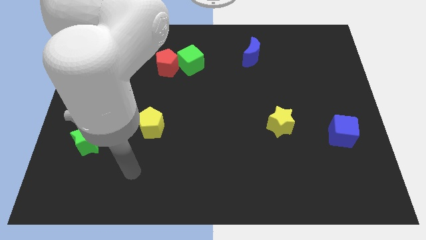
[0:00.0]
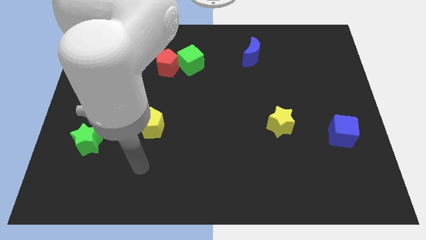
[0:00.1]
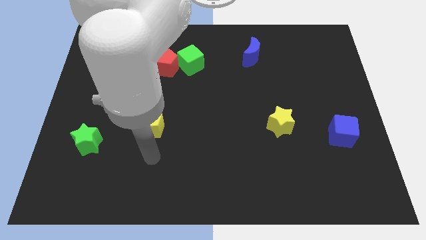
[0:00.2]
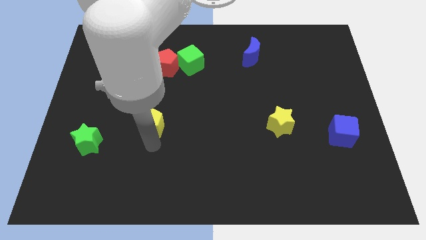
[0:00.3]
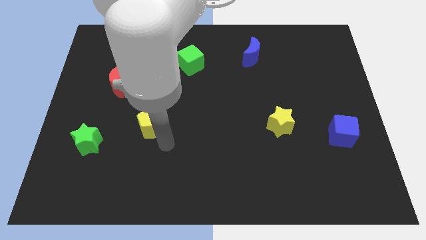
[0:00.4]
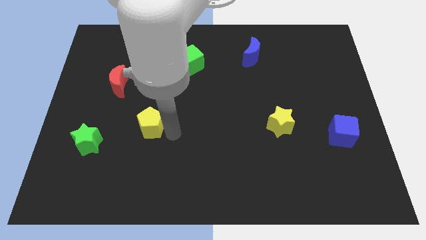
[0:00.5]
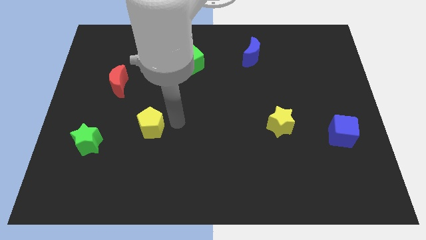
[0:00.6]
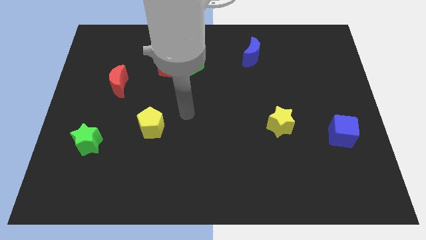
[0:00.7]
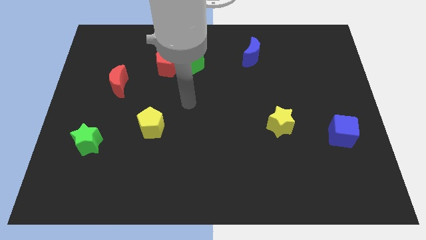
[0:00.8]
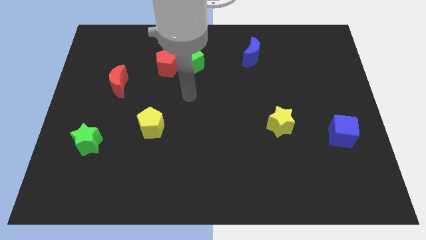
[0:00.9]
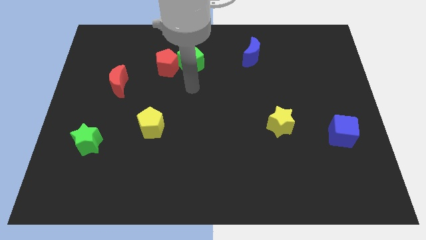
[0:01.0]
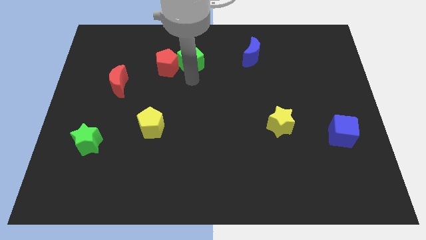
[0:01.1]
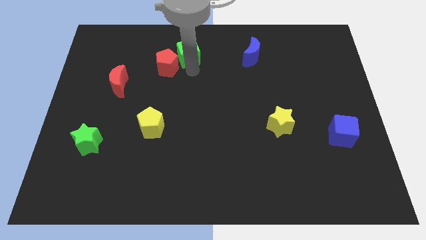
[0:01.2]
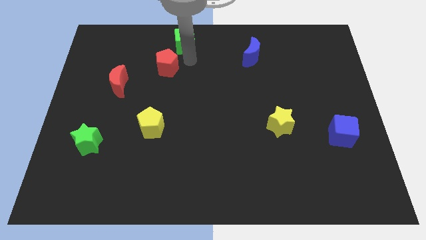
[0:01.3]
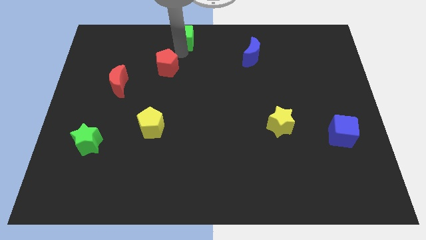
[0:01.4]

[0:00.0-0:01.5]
move the red pentagon away from the green cube

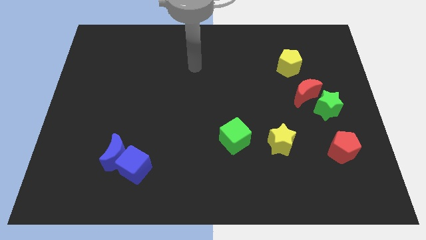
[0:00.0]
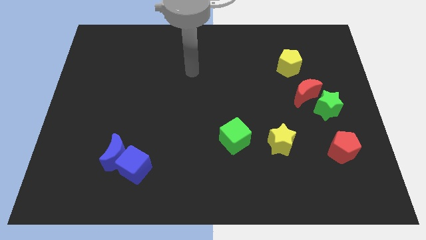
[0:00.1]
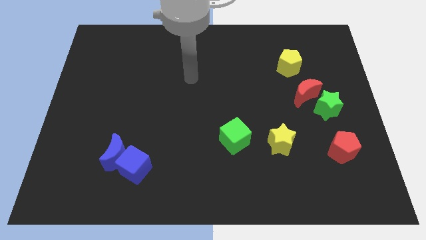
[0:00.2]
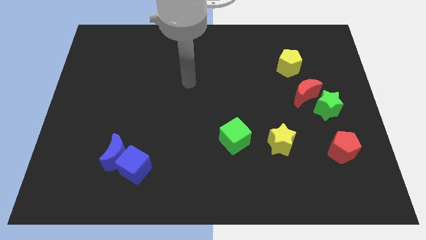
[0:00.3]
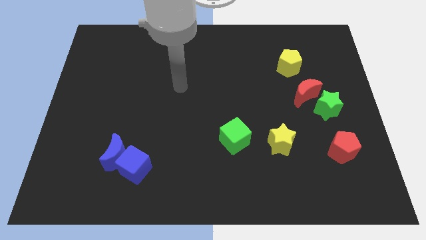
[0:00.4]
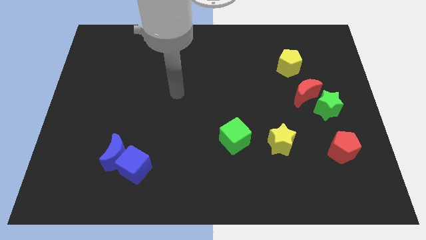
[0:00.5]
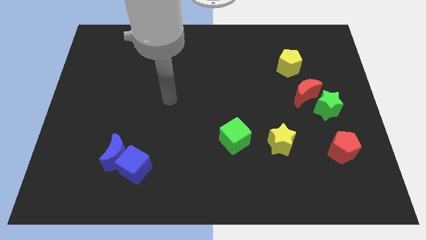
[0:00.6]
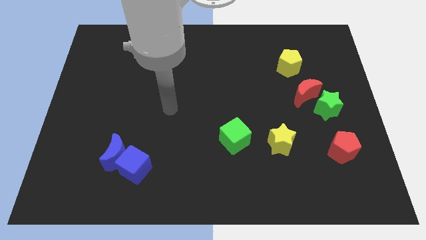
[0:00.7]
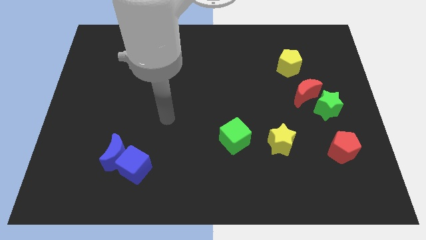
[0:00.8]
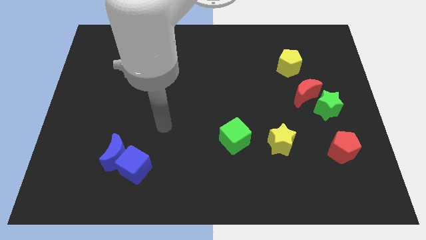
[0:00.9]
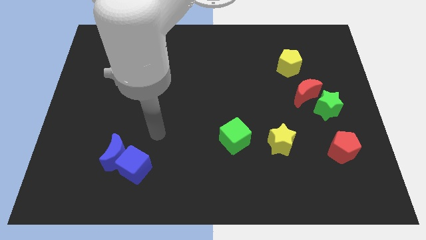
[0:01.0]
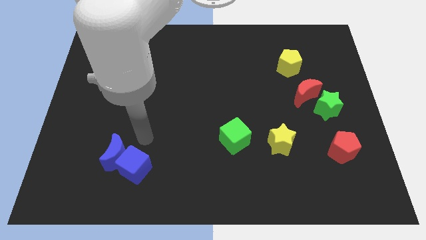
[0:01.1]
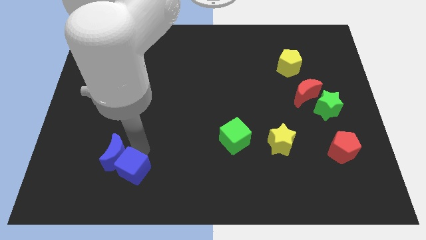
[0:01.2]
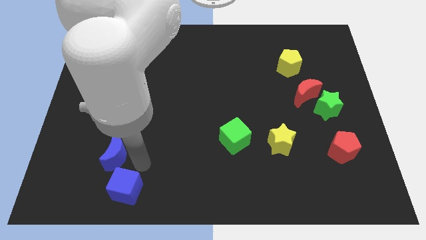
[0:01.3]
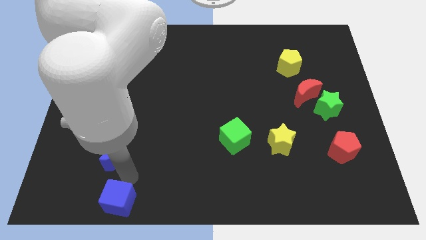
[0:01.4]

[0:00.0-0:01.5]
separate the blue moon from the blue cube

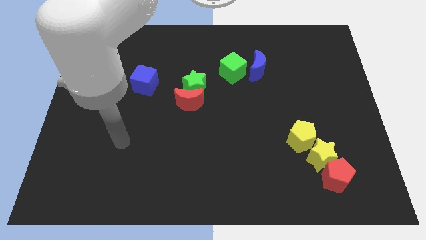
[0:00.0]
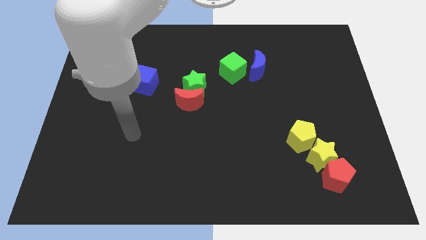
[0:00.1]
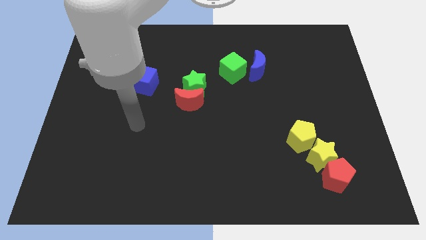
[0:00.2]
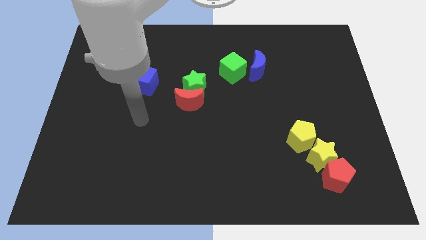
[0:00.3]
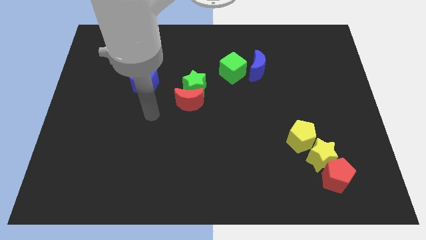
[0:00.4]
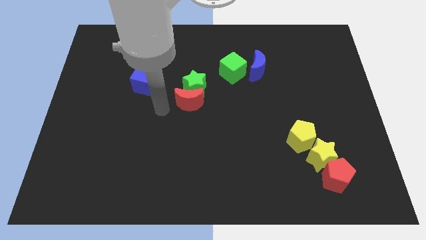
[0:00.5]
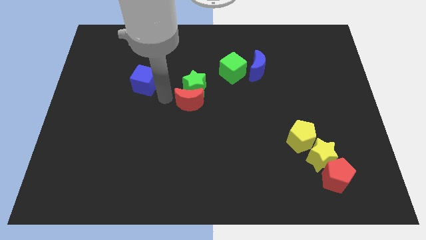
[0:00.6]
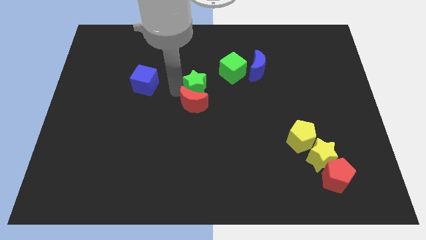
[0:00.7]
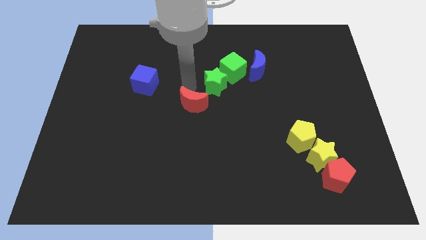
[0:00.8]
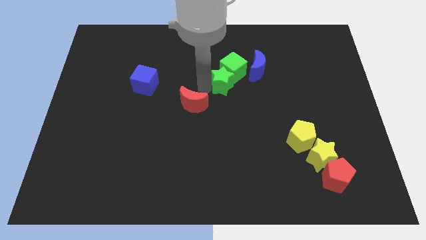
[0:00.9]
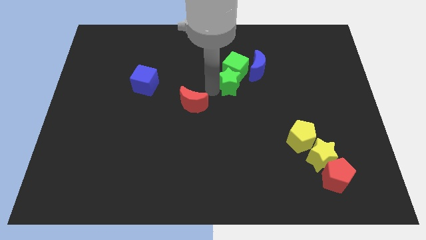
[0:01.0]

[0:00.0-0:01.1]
separate the red moon from the green star

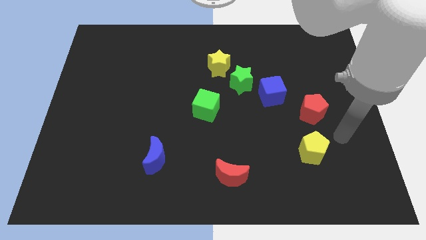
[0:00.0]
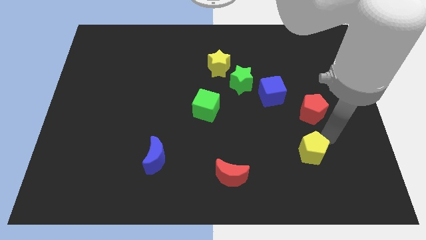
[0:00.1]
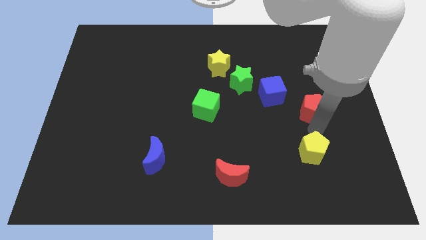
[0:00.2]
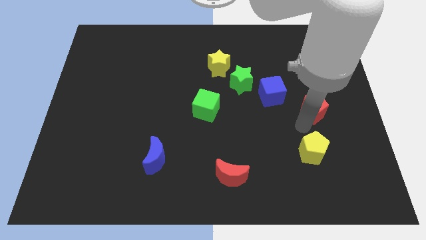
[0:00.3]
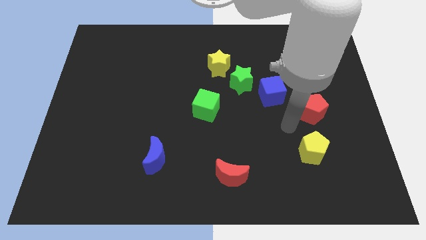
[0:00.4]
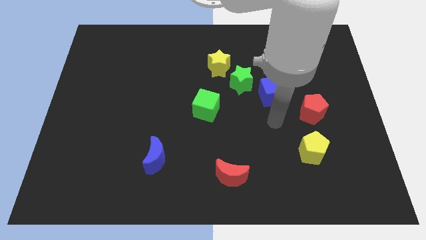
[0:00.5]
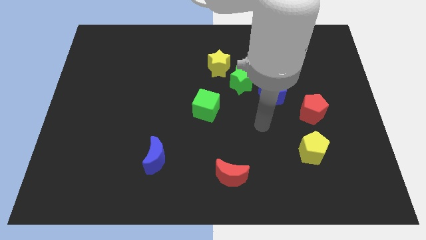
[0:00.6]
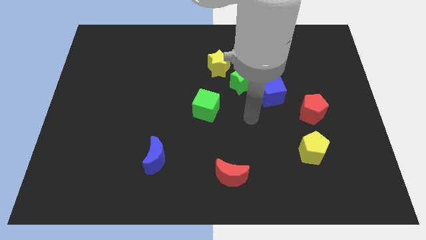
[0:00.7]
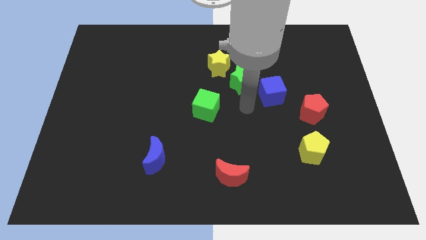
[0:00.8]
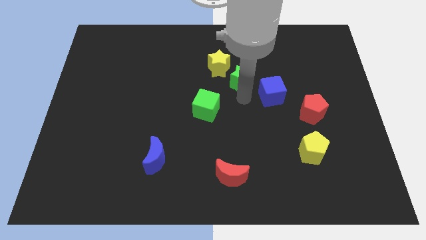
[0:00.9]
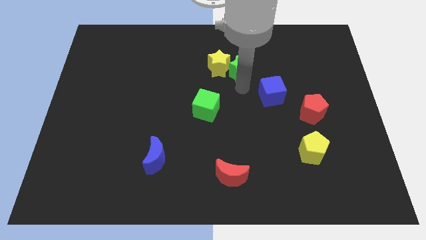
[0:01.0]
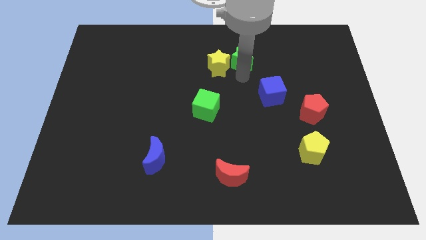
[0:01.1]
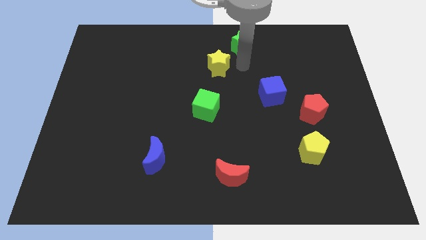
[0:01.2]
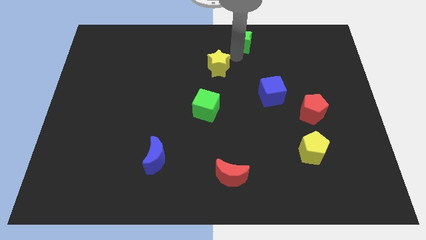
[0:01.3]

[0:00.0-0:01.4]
move the yellow star away from the green star

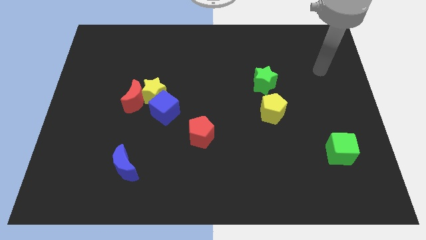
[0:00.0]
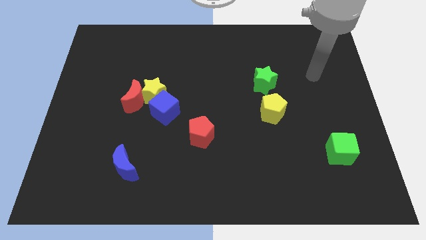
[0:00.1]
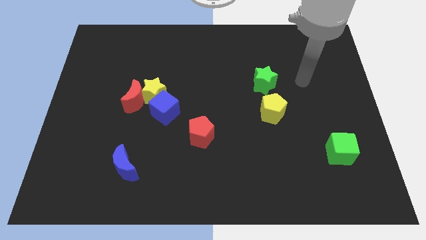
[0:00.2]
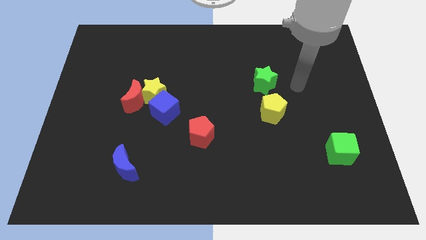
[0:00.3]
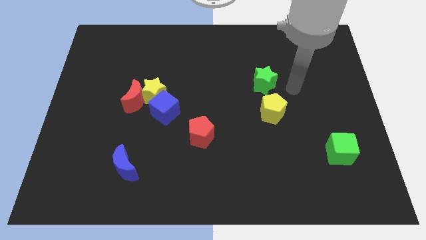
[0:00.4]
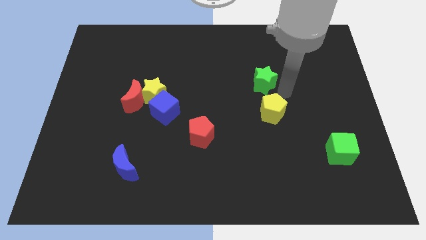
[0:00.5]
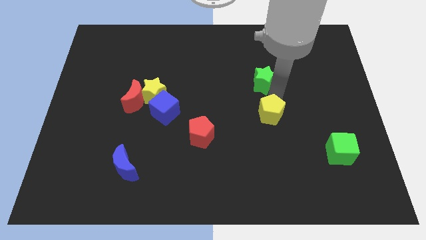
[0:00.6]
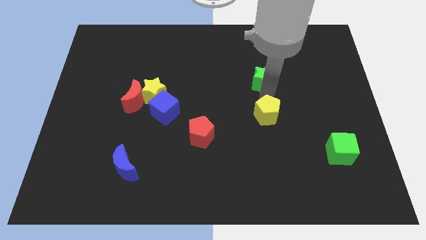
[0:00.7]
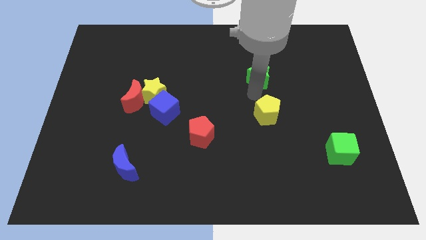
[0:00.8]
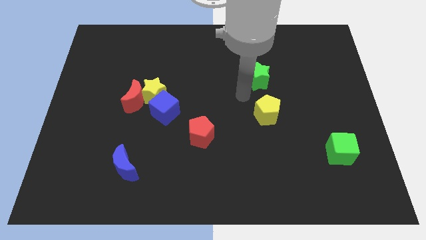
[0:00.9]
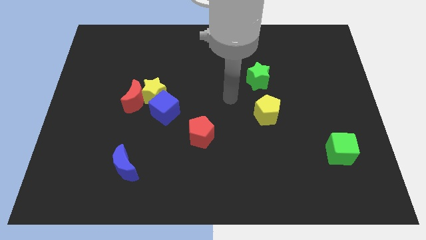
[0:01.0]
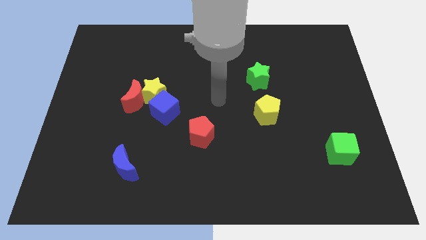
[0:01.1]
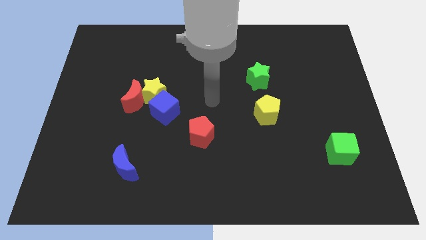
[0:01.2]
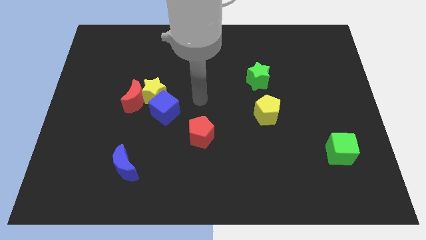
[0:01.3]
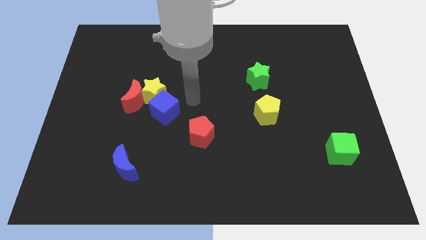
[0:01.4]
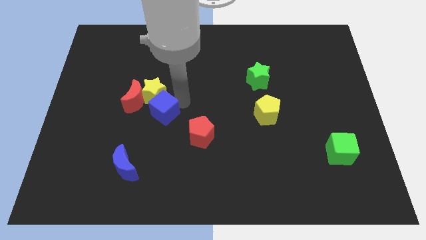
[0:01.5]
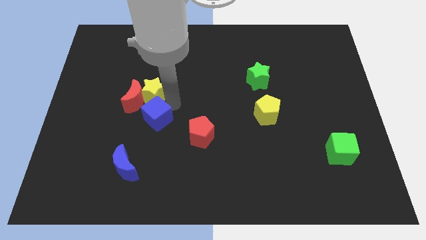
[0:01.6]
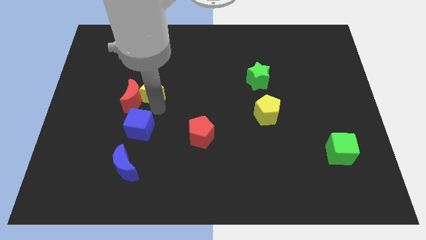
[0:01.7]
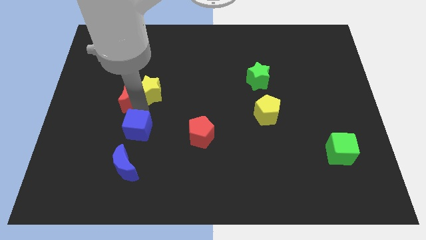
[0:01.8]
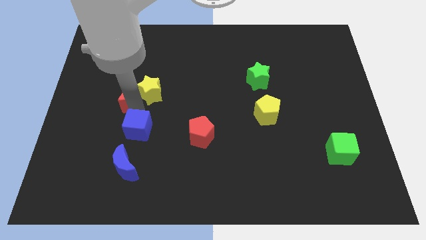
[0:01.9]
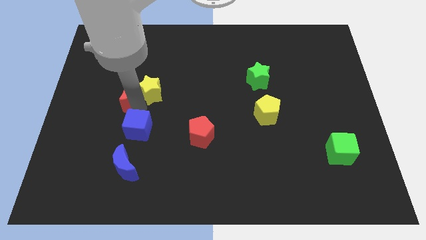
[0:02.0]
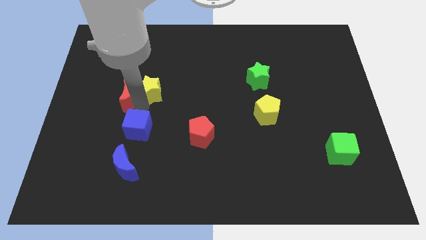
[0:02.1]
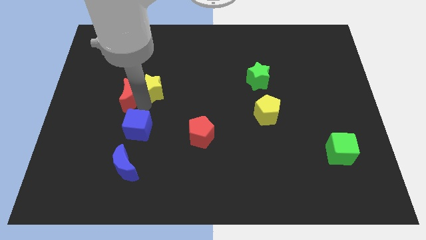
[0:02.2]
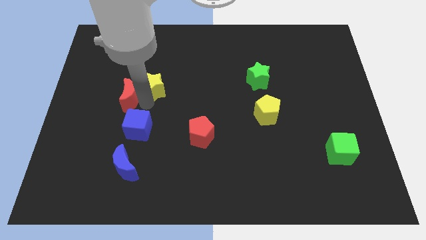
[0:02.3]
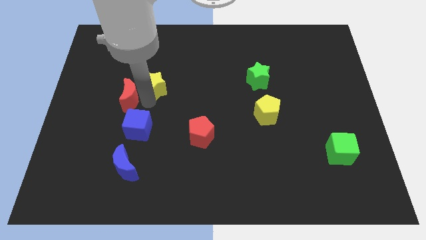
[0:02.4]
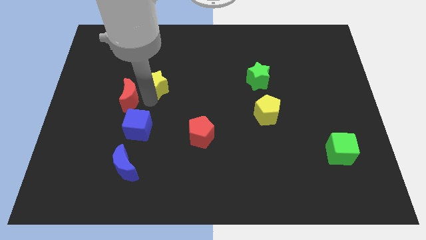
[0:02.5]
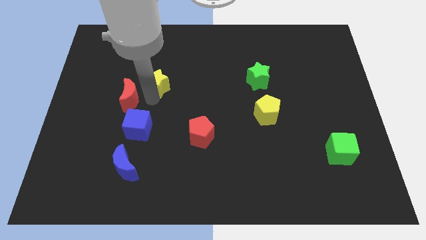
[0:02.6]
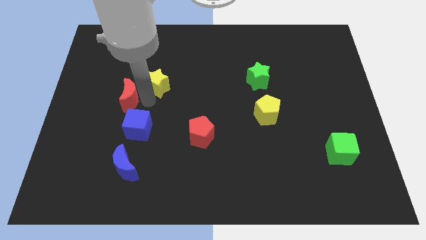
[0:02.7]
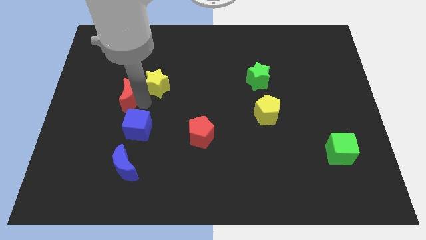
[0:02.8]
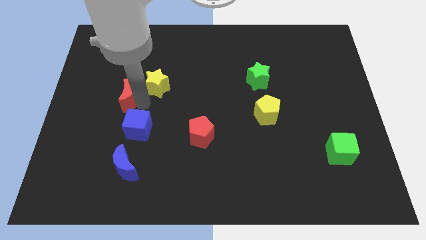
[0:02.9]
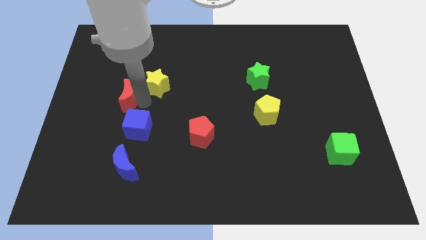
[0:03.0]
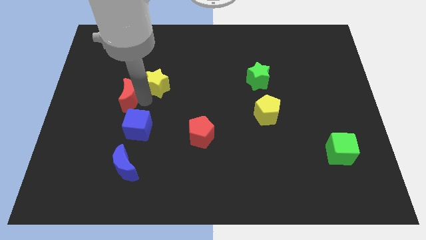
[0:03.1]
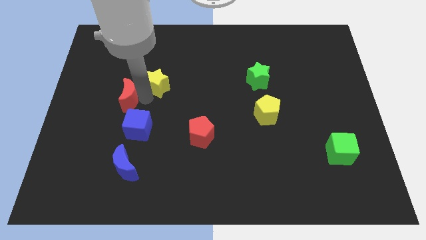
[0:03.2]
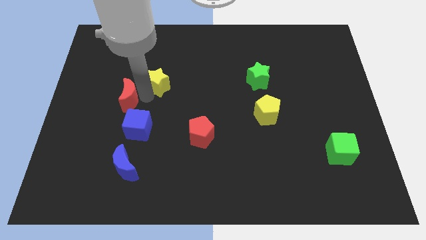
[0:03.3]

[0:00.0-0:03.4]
separate the yellow star from the red moon and blue cube

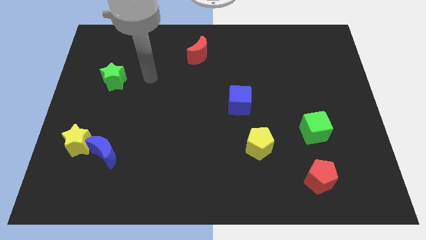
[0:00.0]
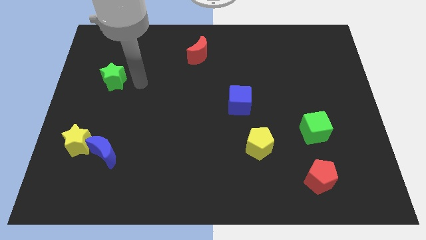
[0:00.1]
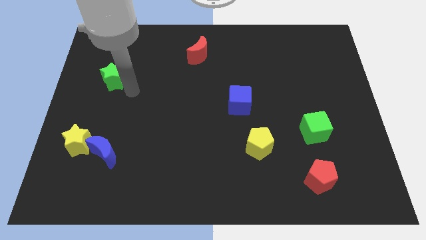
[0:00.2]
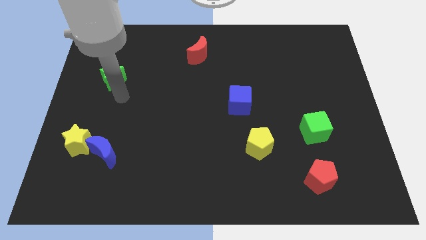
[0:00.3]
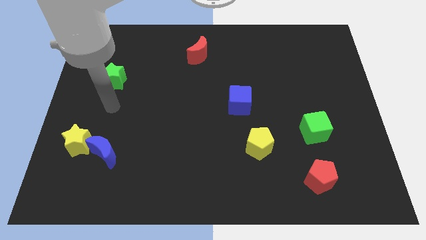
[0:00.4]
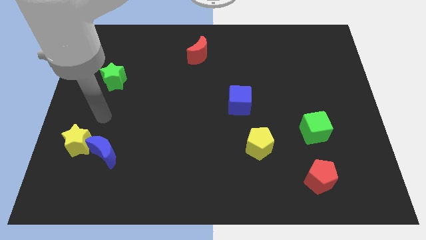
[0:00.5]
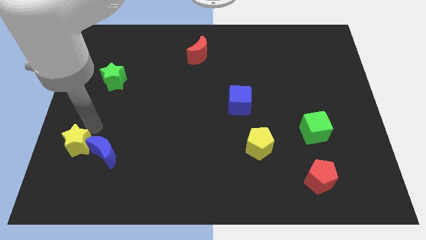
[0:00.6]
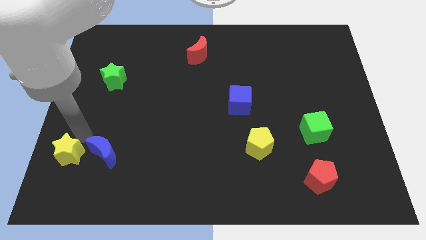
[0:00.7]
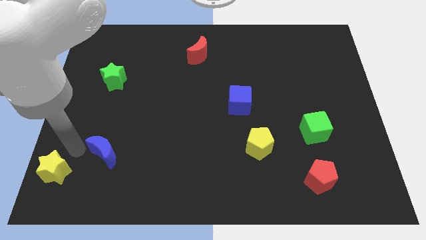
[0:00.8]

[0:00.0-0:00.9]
separate the blue moon from the yellow star
